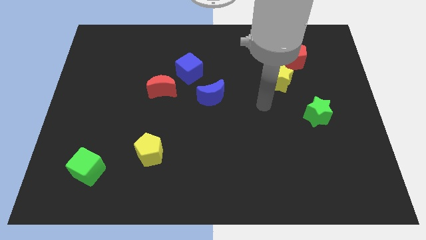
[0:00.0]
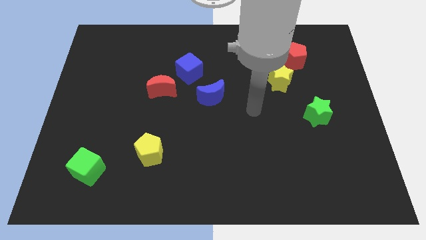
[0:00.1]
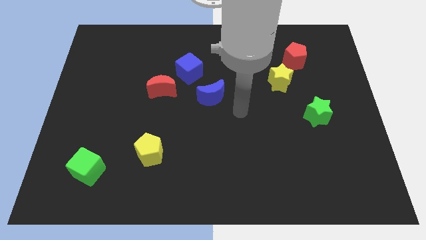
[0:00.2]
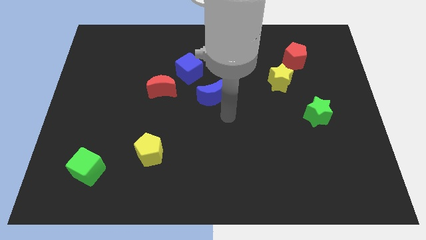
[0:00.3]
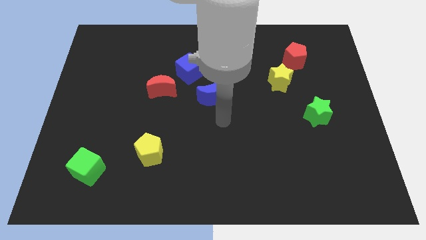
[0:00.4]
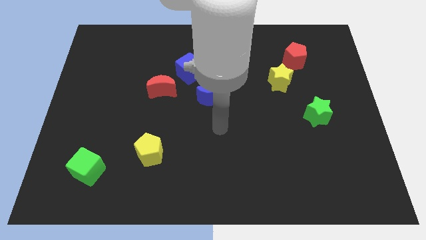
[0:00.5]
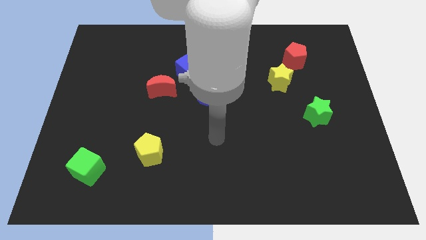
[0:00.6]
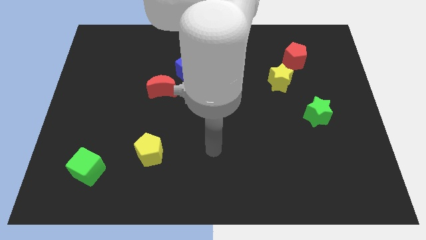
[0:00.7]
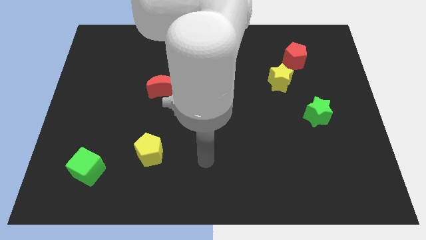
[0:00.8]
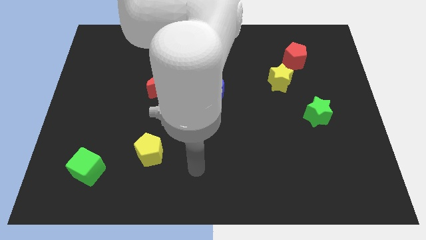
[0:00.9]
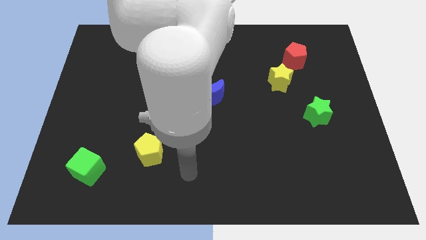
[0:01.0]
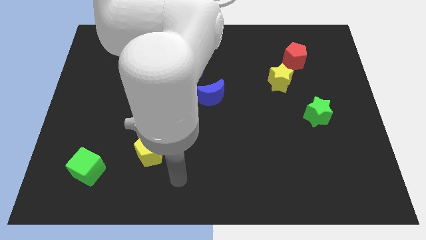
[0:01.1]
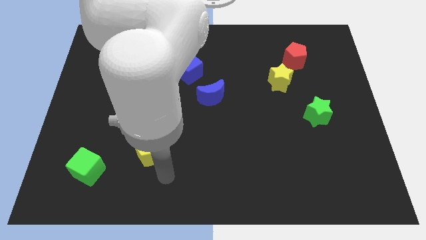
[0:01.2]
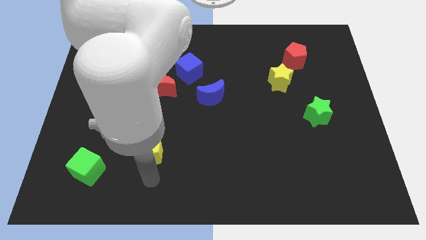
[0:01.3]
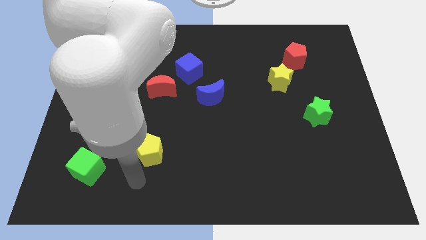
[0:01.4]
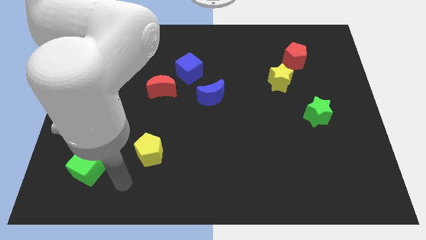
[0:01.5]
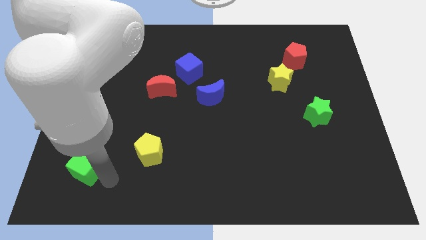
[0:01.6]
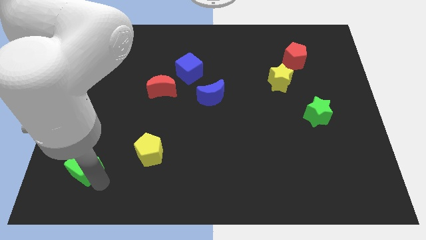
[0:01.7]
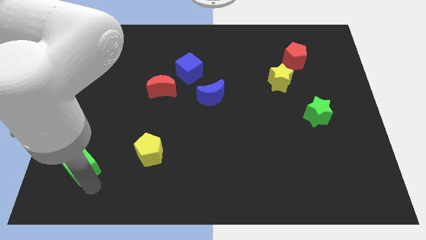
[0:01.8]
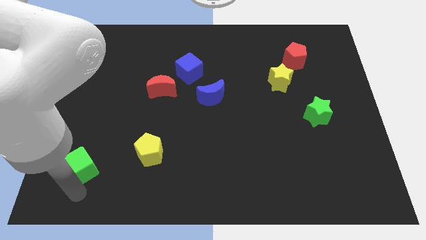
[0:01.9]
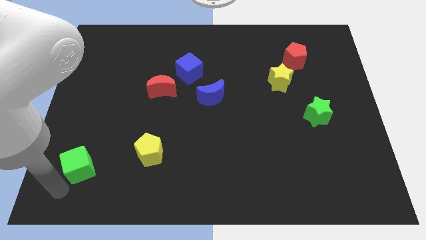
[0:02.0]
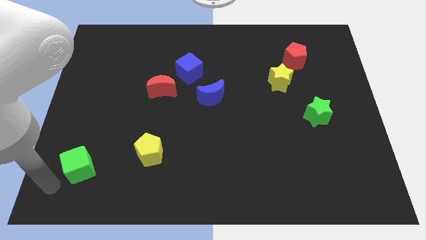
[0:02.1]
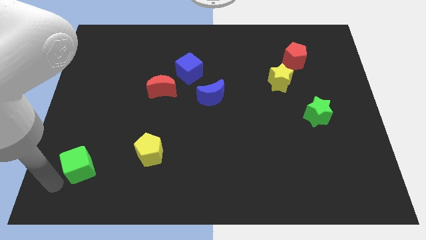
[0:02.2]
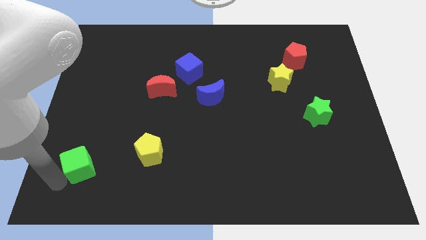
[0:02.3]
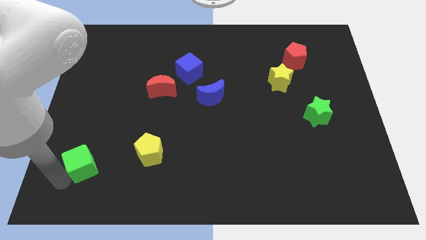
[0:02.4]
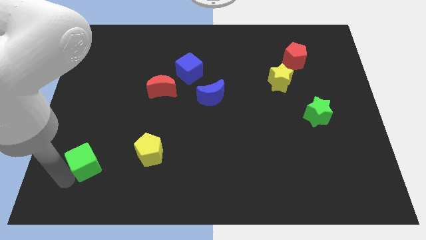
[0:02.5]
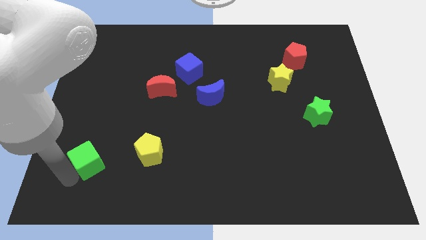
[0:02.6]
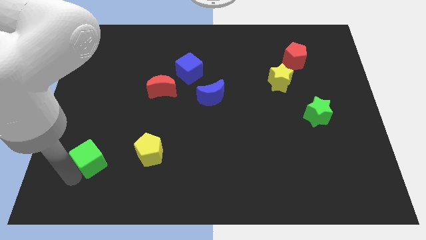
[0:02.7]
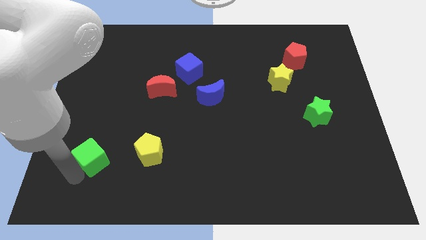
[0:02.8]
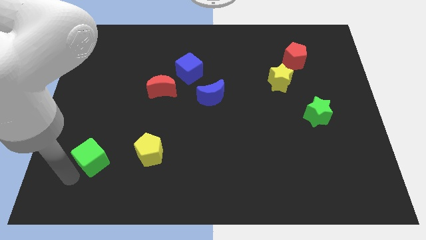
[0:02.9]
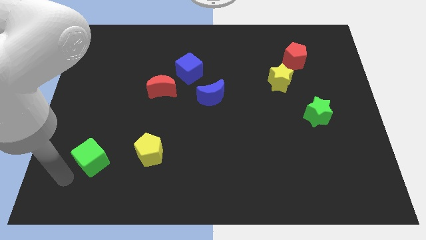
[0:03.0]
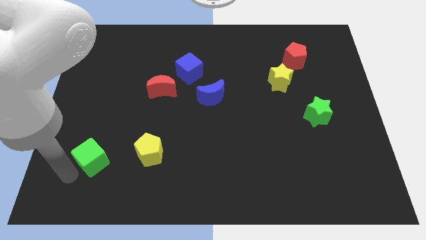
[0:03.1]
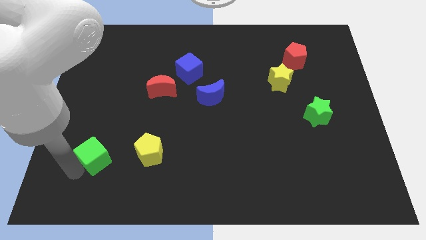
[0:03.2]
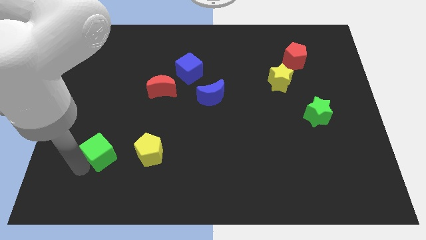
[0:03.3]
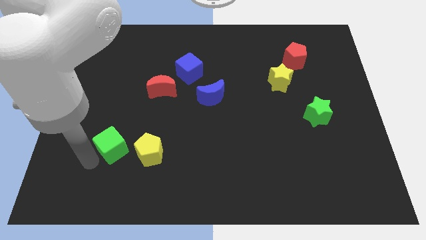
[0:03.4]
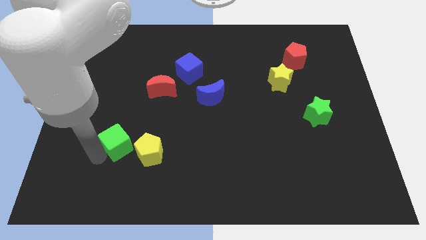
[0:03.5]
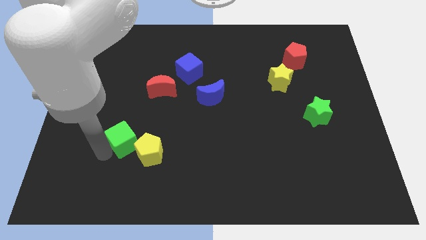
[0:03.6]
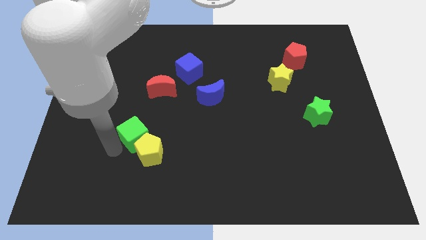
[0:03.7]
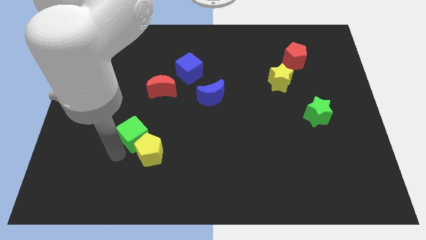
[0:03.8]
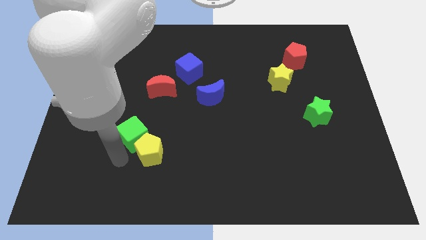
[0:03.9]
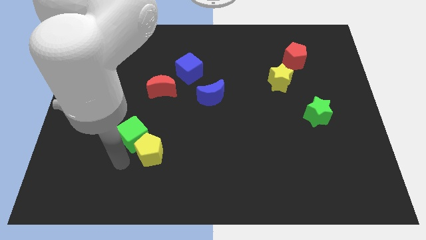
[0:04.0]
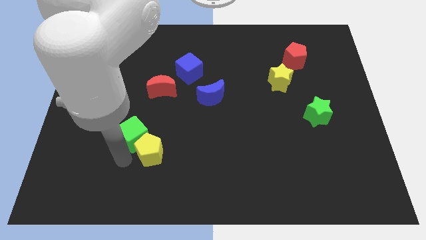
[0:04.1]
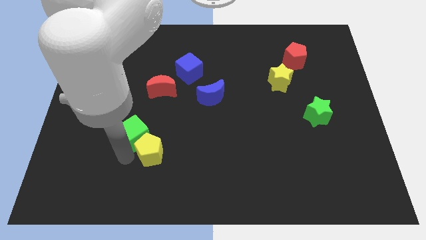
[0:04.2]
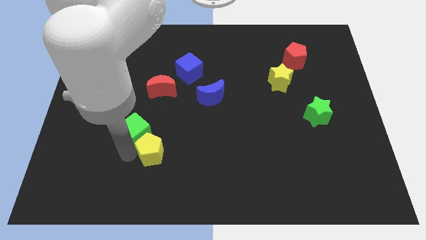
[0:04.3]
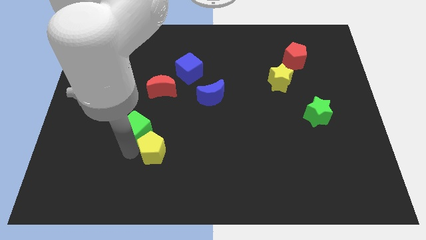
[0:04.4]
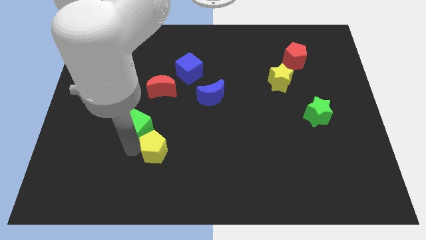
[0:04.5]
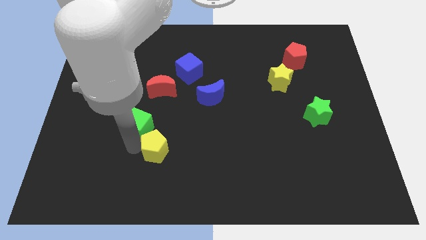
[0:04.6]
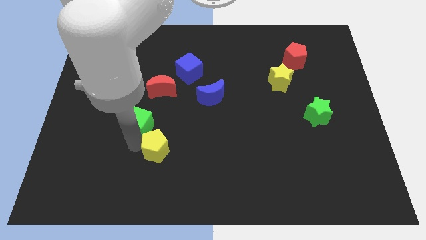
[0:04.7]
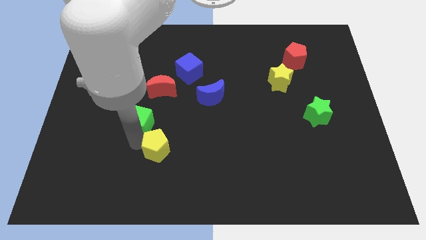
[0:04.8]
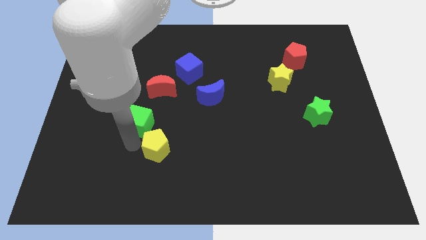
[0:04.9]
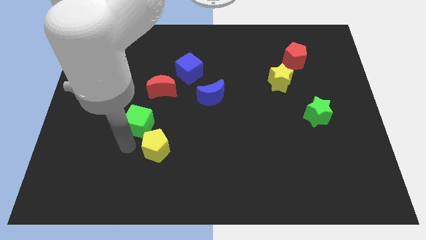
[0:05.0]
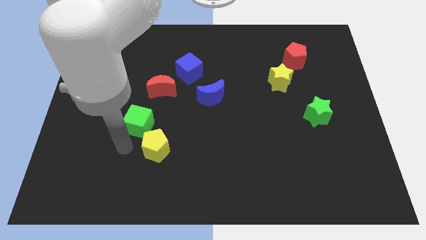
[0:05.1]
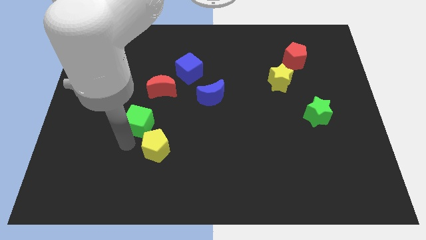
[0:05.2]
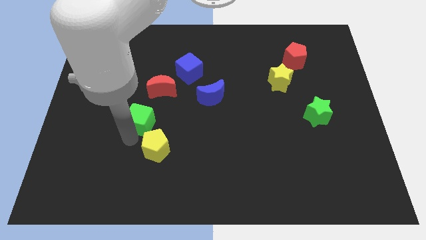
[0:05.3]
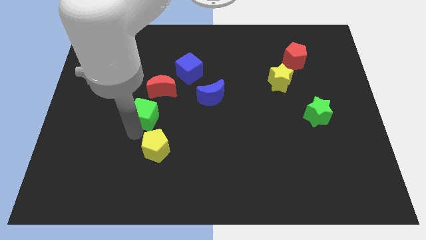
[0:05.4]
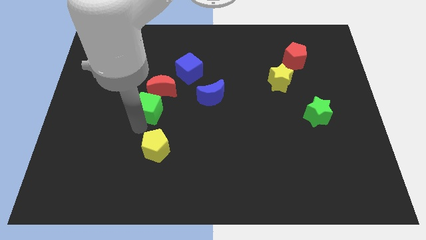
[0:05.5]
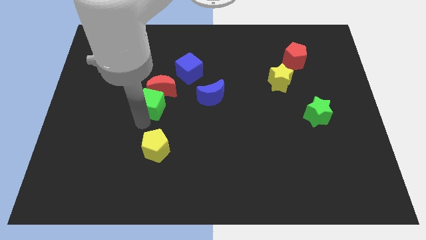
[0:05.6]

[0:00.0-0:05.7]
push the green cube towards the red moon

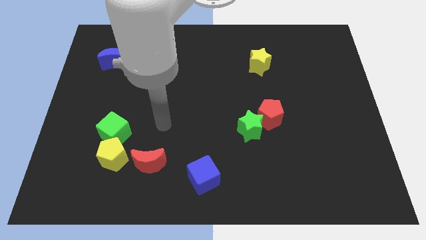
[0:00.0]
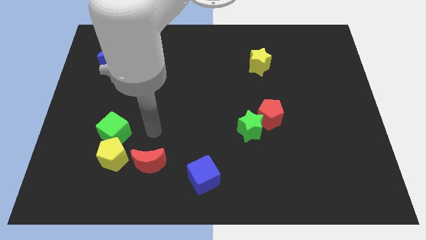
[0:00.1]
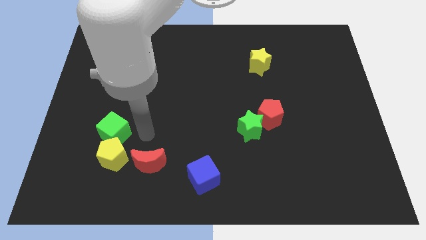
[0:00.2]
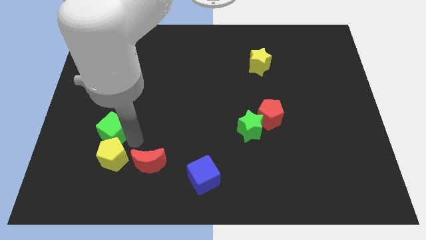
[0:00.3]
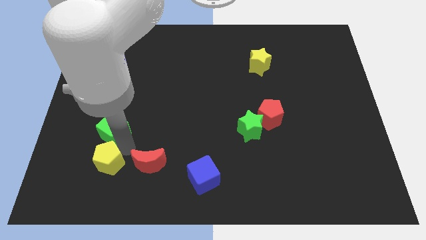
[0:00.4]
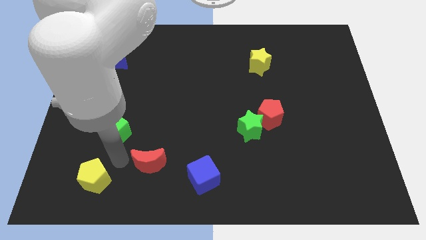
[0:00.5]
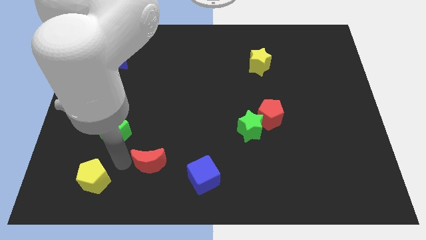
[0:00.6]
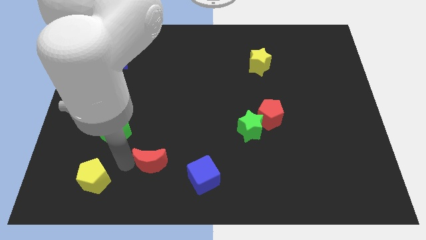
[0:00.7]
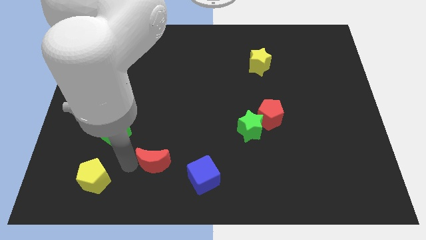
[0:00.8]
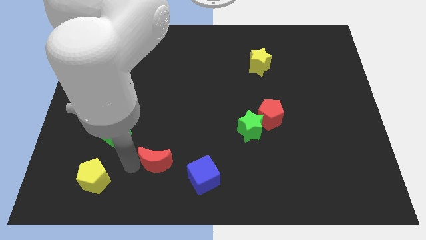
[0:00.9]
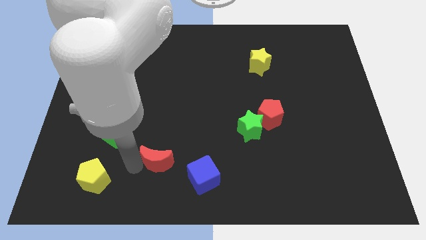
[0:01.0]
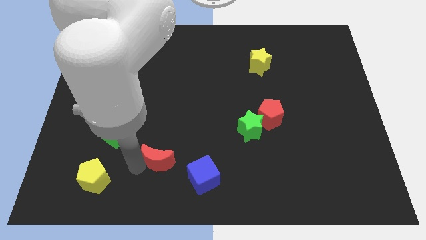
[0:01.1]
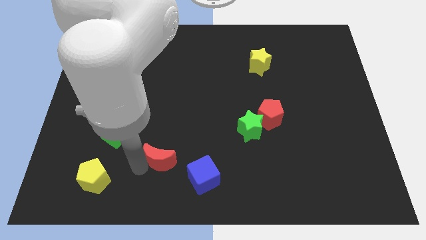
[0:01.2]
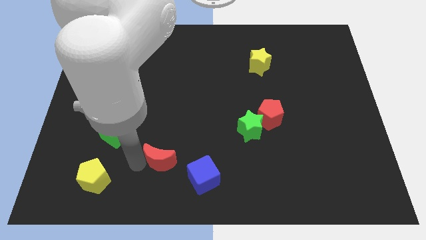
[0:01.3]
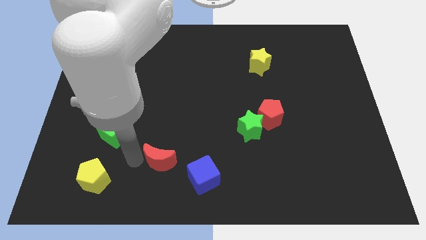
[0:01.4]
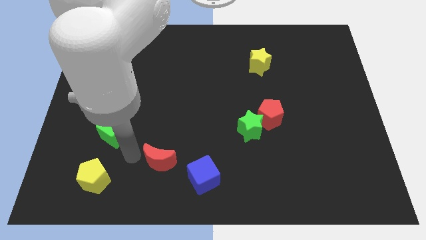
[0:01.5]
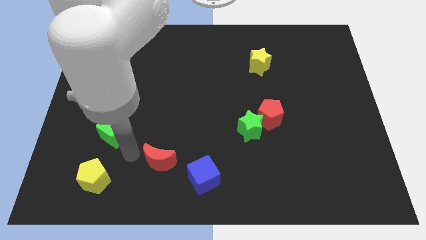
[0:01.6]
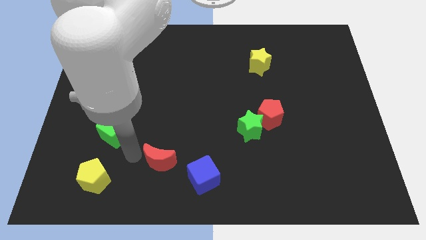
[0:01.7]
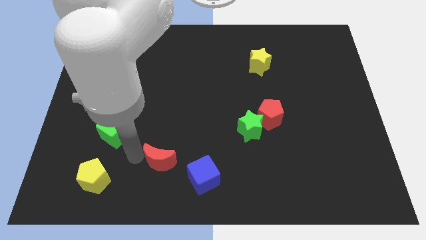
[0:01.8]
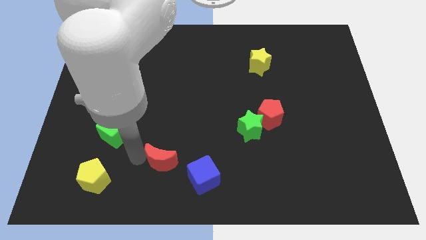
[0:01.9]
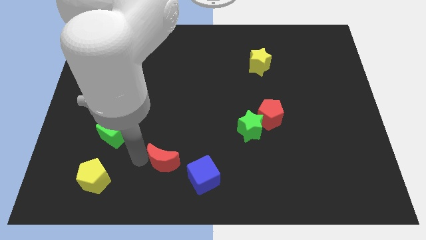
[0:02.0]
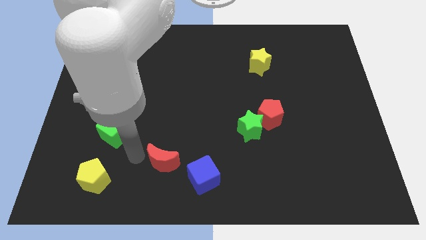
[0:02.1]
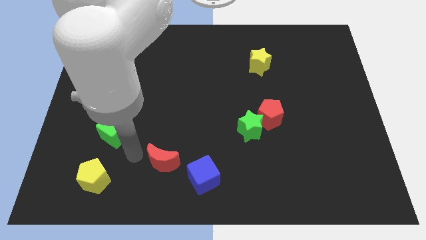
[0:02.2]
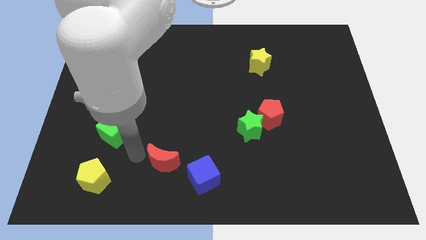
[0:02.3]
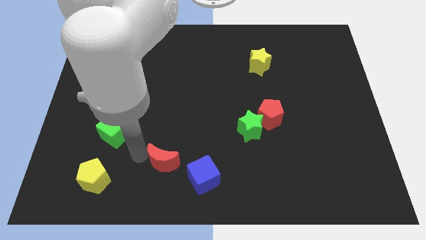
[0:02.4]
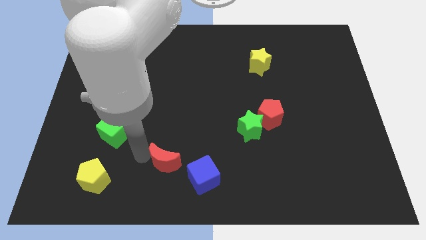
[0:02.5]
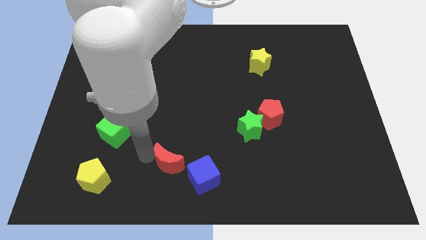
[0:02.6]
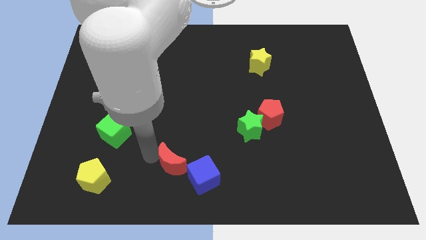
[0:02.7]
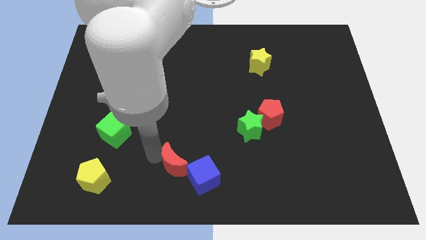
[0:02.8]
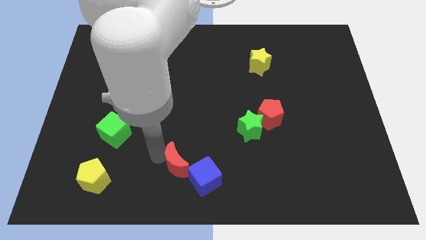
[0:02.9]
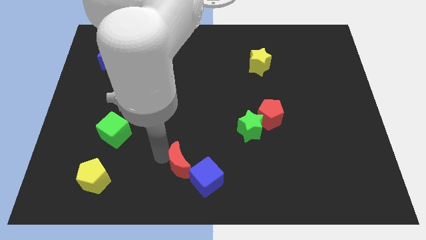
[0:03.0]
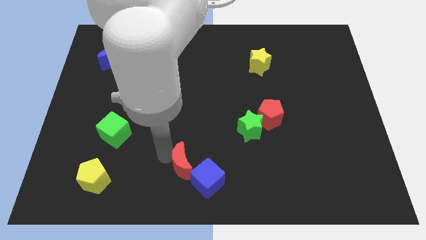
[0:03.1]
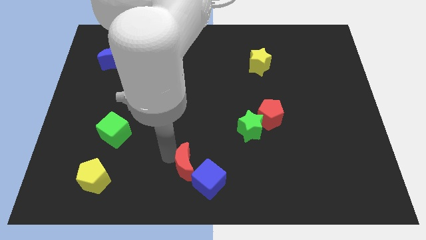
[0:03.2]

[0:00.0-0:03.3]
push the red moon towards the blue cube
